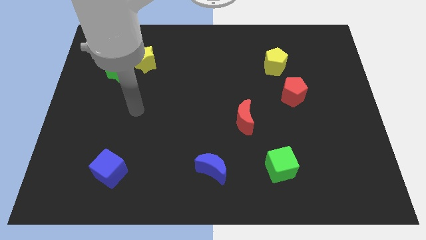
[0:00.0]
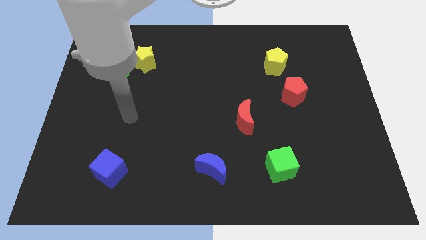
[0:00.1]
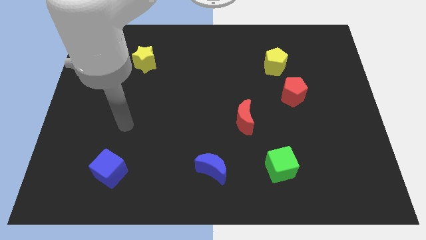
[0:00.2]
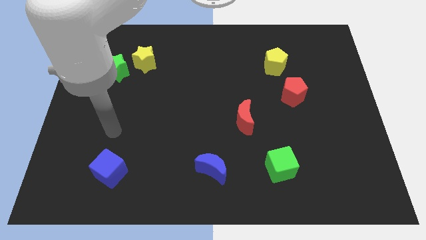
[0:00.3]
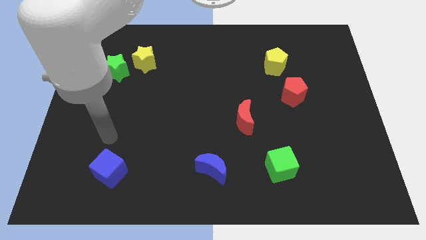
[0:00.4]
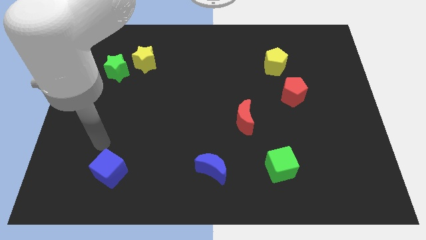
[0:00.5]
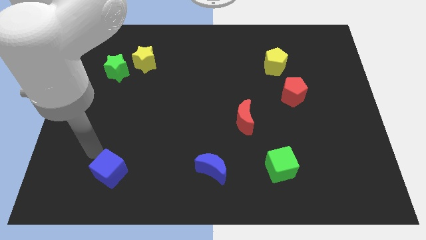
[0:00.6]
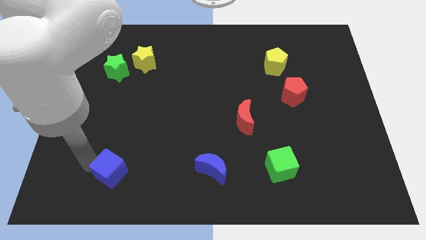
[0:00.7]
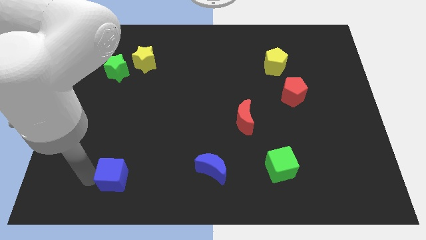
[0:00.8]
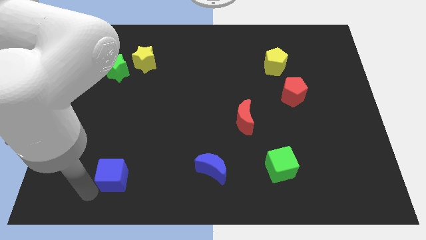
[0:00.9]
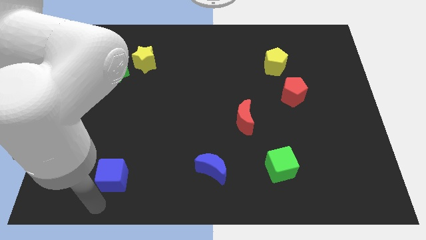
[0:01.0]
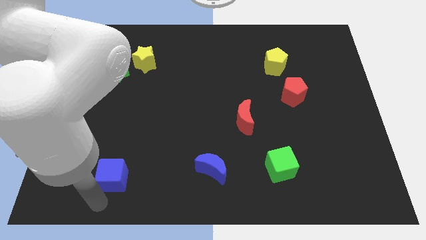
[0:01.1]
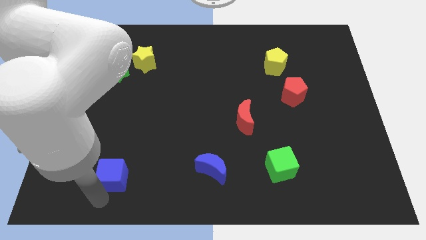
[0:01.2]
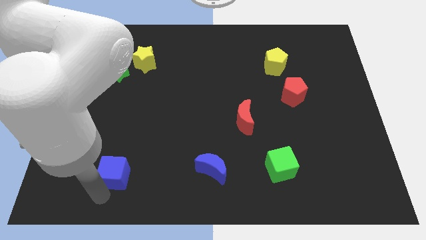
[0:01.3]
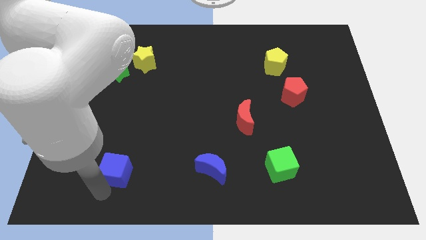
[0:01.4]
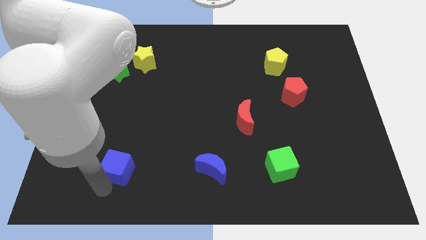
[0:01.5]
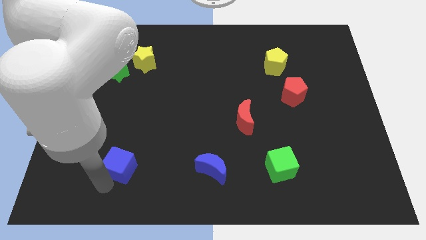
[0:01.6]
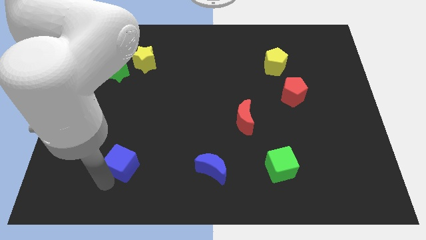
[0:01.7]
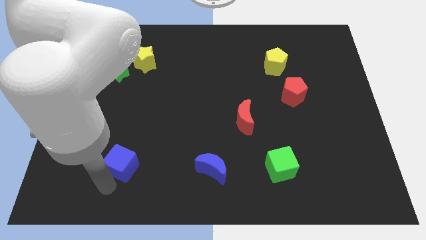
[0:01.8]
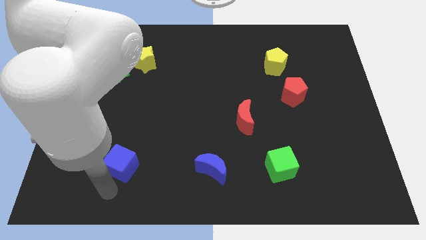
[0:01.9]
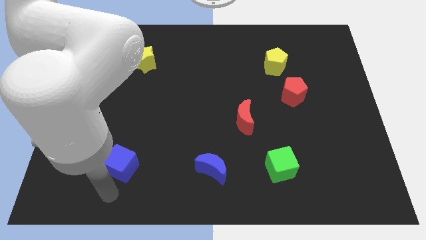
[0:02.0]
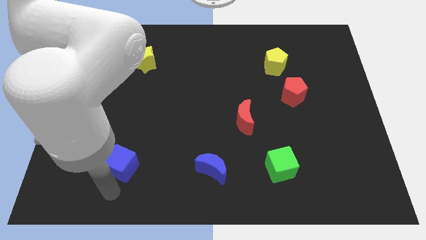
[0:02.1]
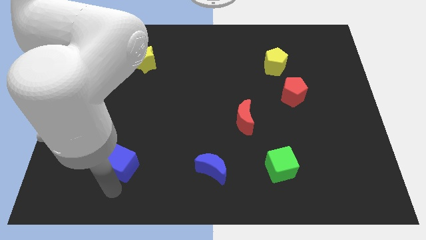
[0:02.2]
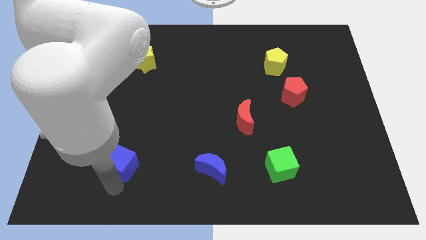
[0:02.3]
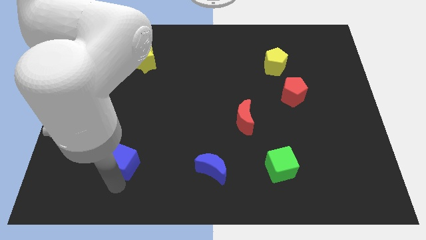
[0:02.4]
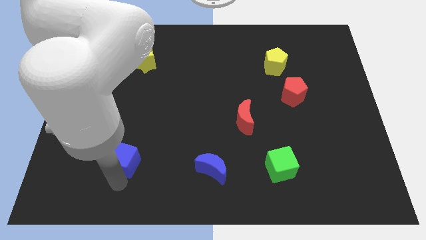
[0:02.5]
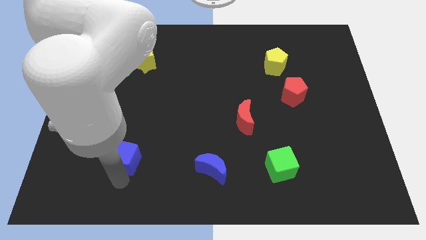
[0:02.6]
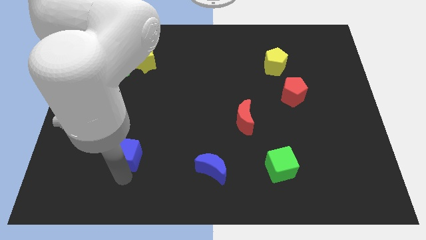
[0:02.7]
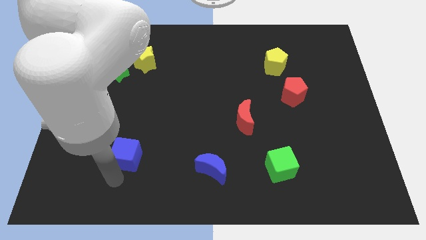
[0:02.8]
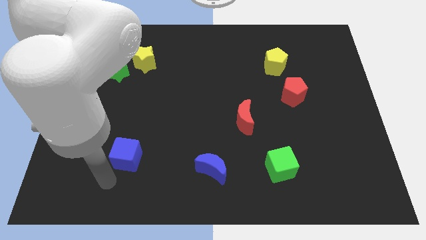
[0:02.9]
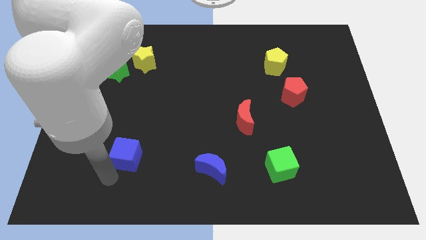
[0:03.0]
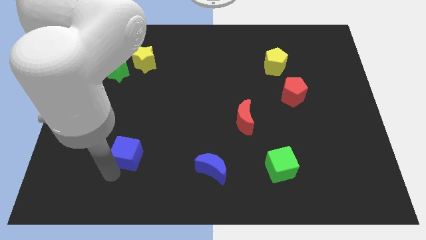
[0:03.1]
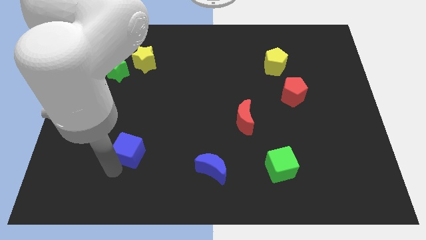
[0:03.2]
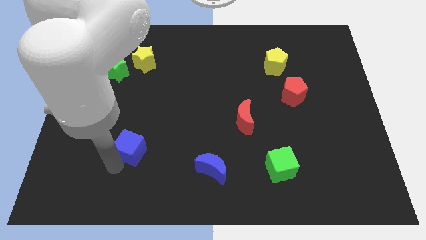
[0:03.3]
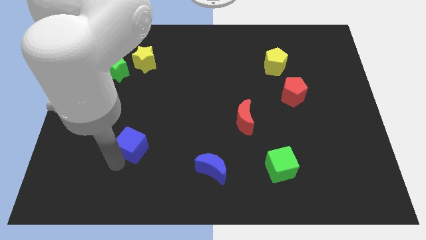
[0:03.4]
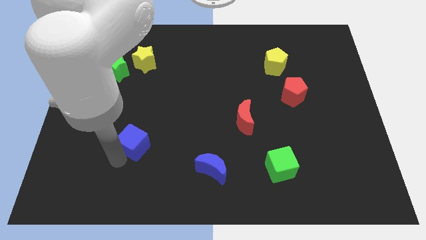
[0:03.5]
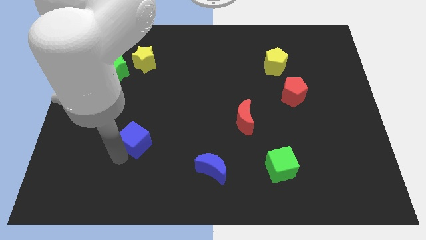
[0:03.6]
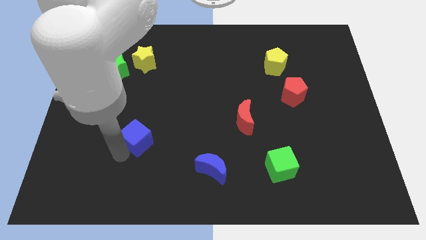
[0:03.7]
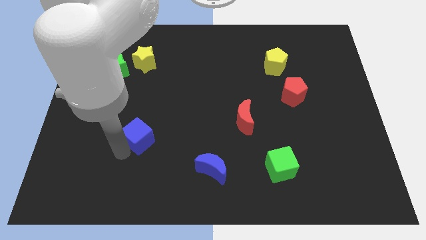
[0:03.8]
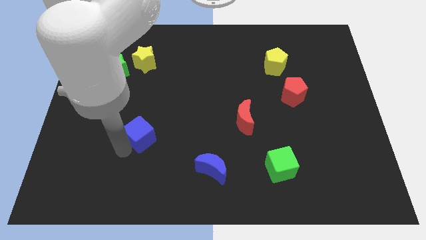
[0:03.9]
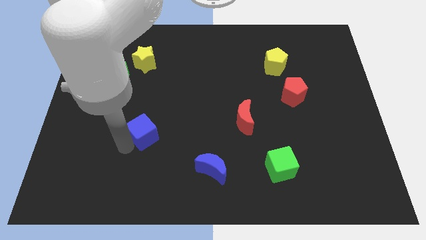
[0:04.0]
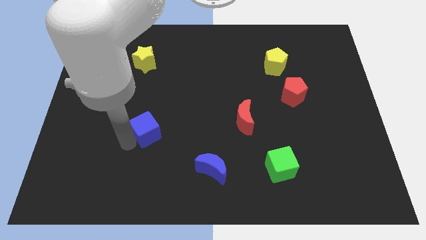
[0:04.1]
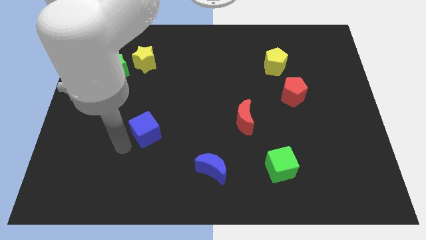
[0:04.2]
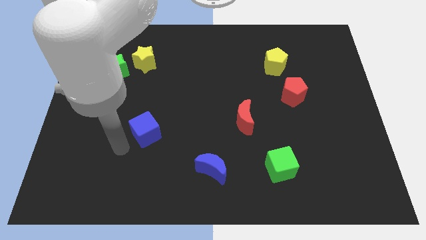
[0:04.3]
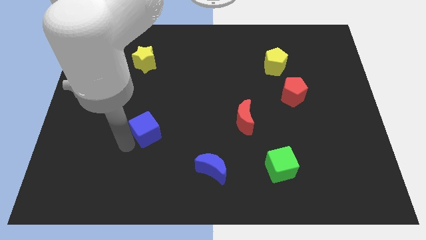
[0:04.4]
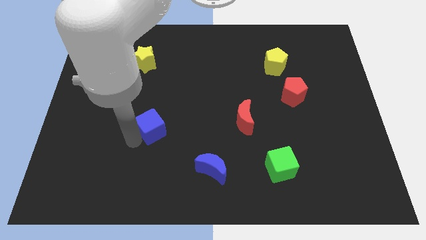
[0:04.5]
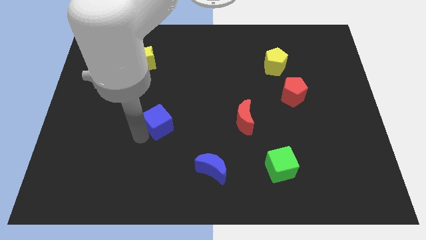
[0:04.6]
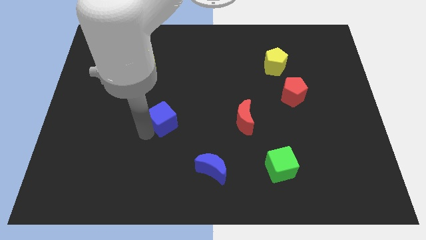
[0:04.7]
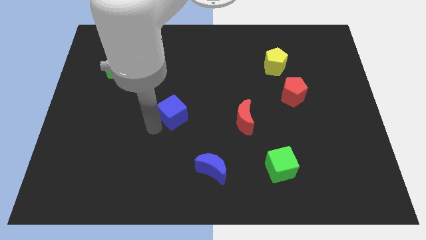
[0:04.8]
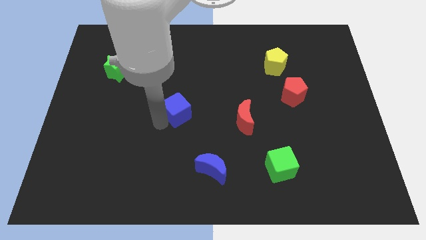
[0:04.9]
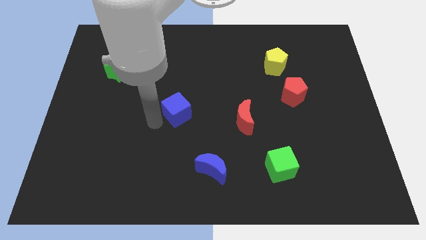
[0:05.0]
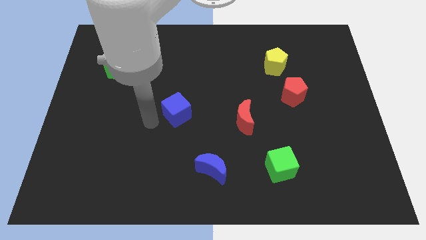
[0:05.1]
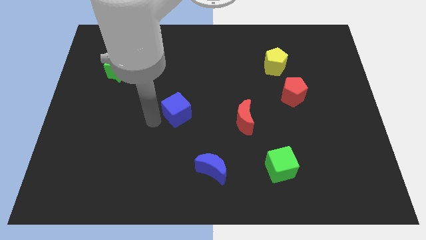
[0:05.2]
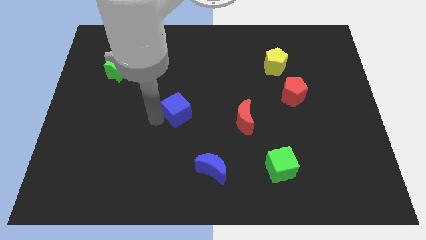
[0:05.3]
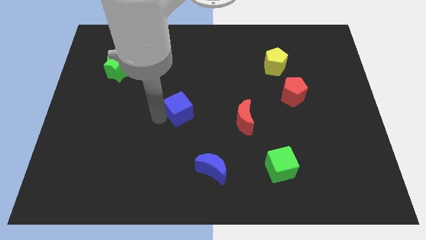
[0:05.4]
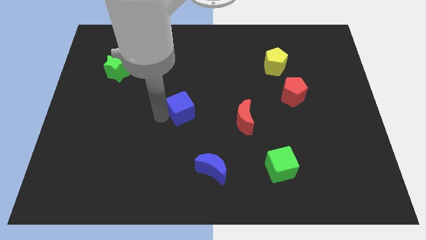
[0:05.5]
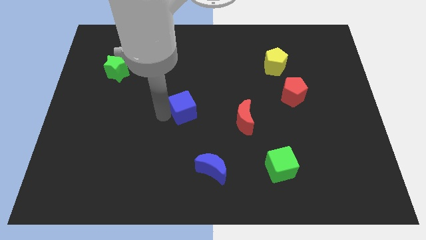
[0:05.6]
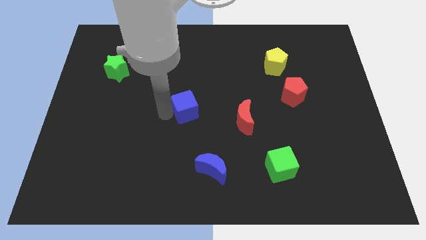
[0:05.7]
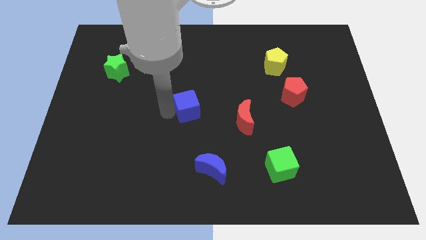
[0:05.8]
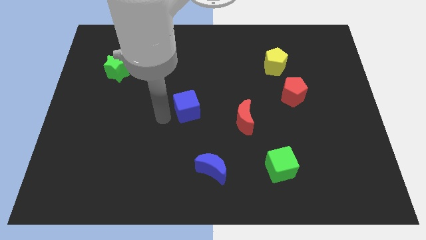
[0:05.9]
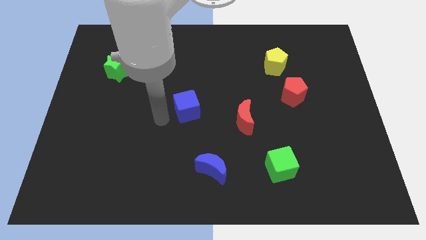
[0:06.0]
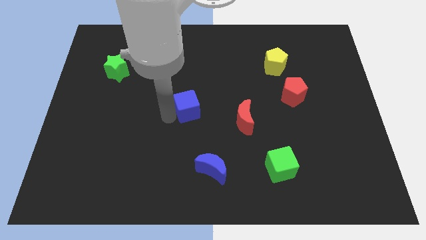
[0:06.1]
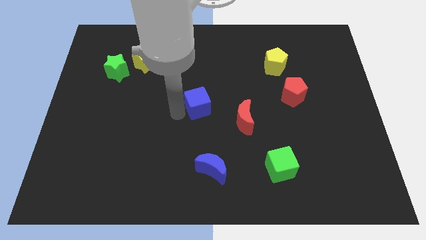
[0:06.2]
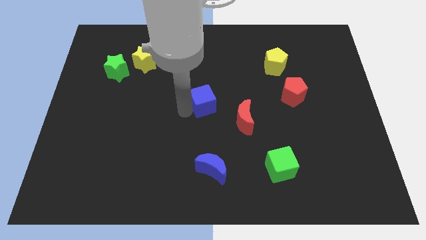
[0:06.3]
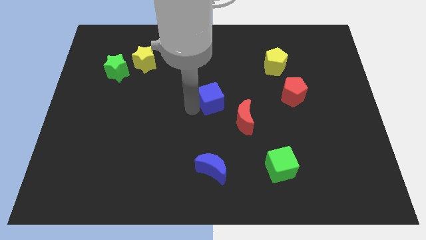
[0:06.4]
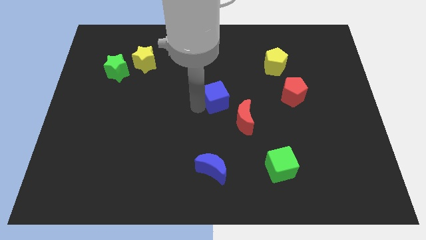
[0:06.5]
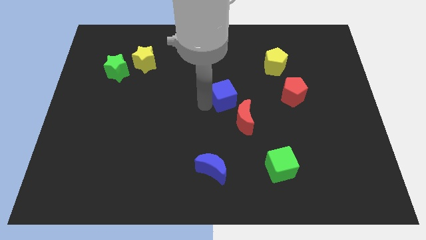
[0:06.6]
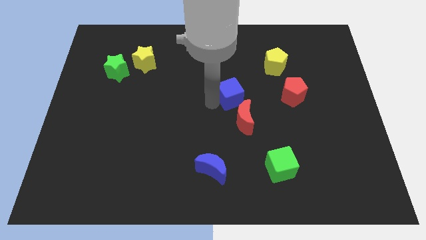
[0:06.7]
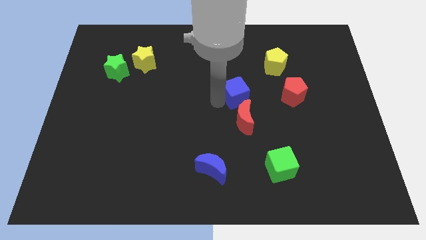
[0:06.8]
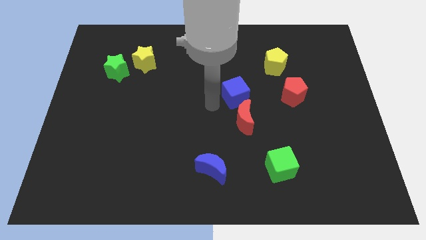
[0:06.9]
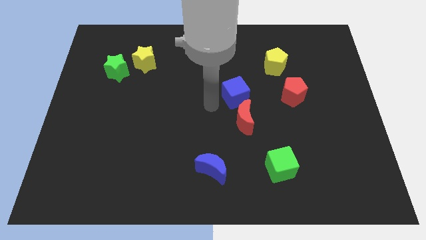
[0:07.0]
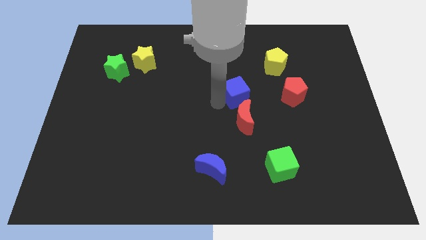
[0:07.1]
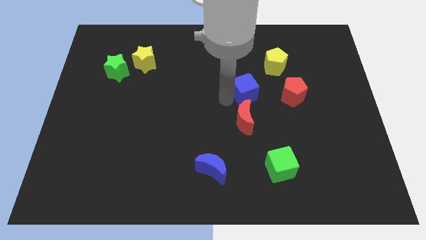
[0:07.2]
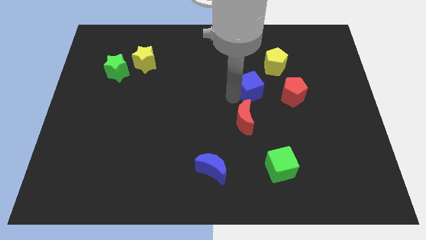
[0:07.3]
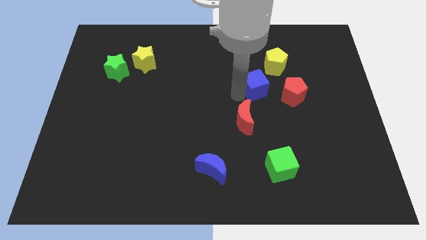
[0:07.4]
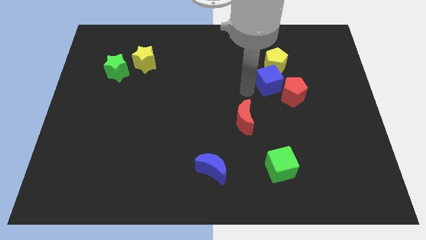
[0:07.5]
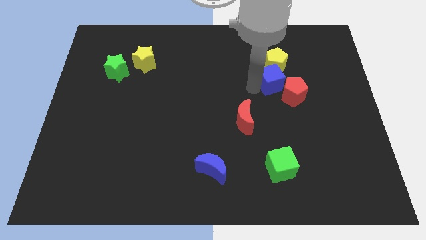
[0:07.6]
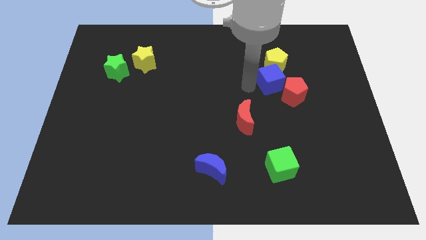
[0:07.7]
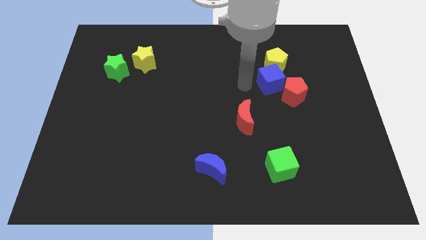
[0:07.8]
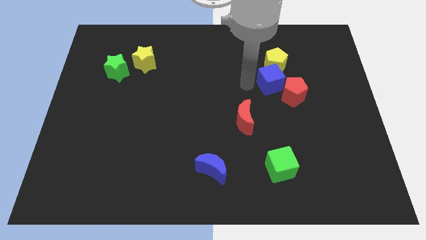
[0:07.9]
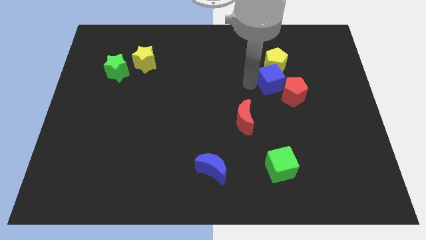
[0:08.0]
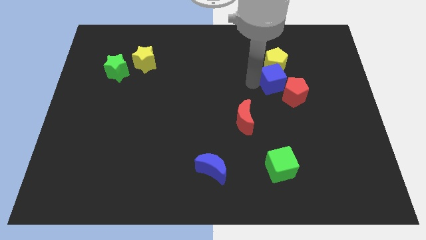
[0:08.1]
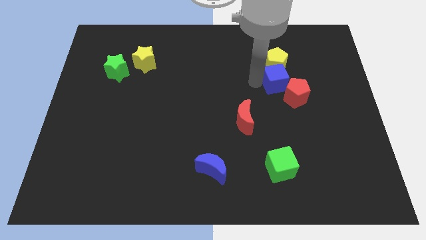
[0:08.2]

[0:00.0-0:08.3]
put the blue cube diagonally down and to the right of the yellow pentagon
